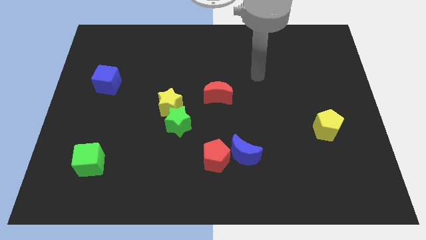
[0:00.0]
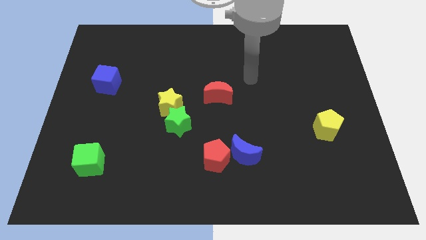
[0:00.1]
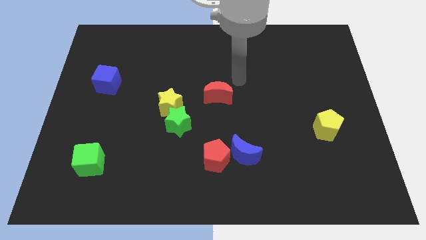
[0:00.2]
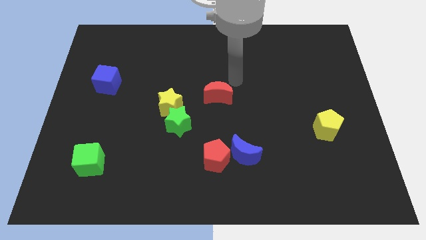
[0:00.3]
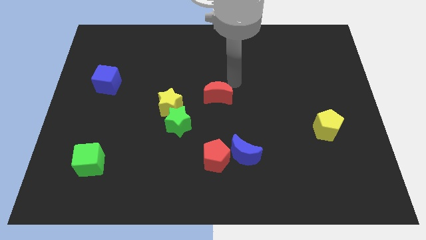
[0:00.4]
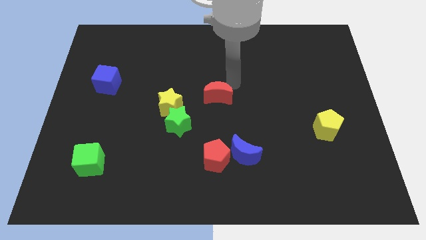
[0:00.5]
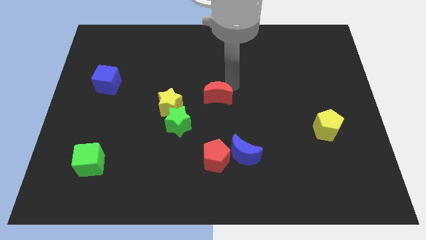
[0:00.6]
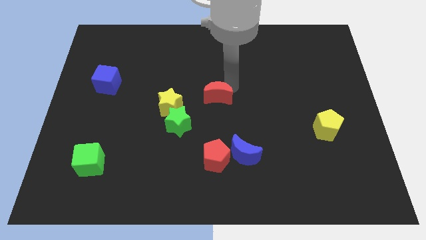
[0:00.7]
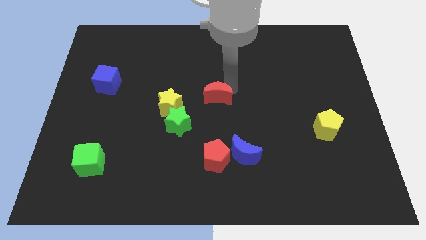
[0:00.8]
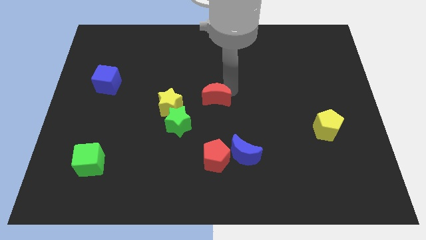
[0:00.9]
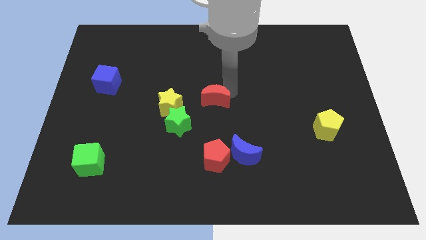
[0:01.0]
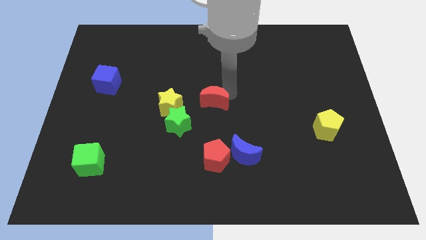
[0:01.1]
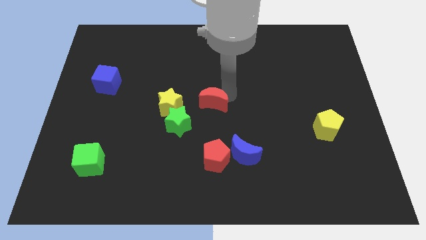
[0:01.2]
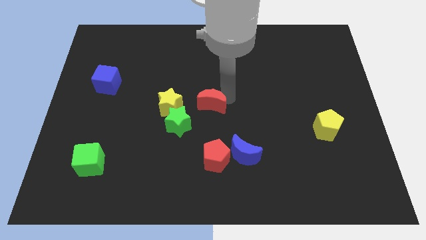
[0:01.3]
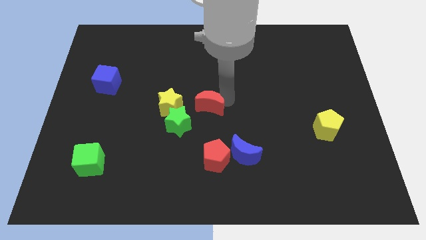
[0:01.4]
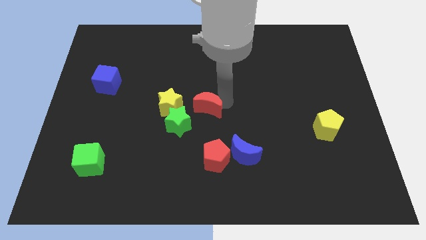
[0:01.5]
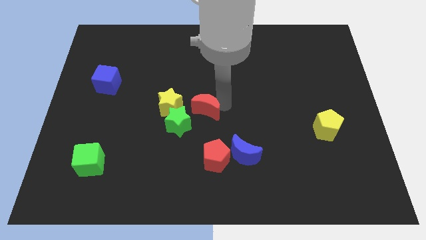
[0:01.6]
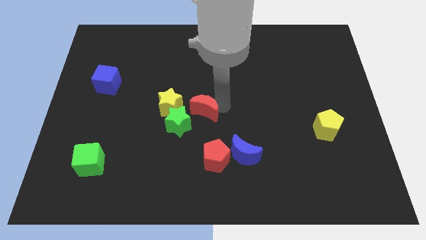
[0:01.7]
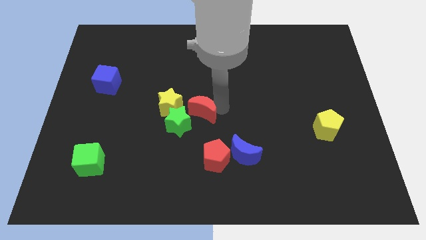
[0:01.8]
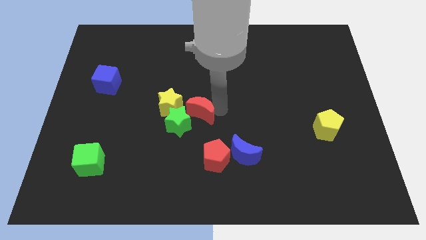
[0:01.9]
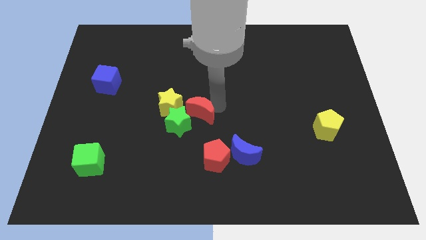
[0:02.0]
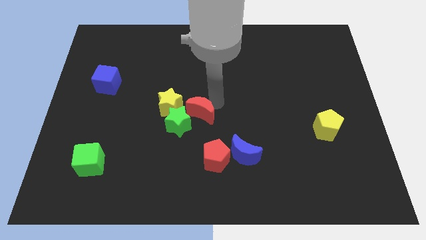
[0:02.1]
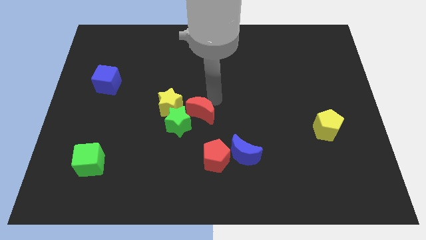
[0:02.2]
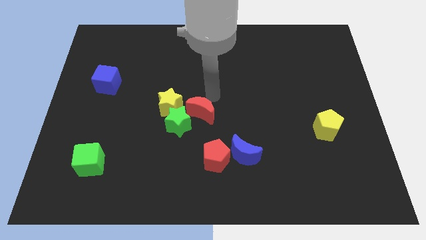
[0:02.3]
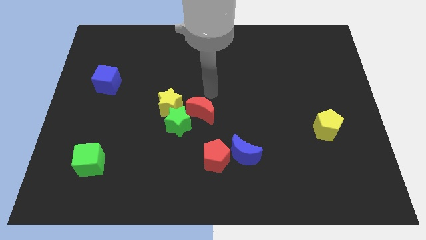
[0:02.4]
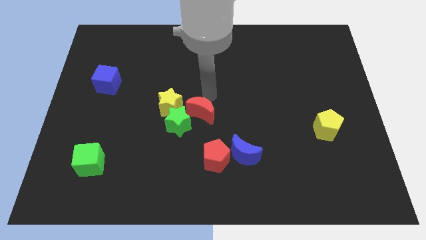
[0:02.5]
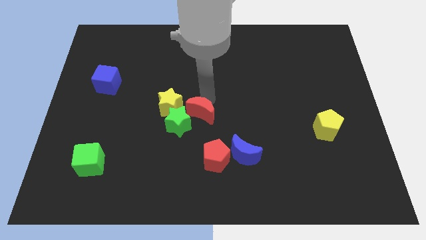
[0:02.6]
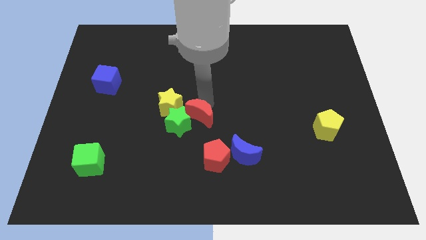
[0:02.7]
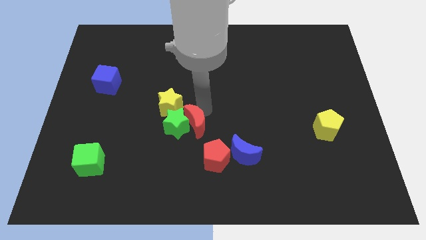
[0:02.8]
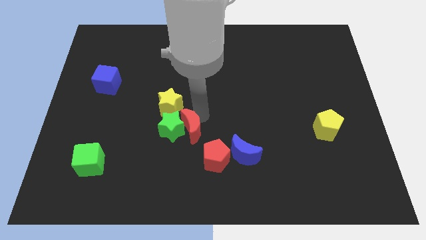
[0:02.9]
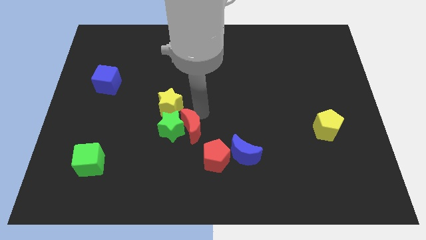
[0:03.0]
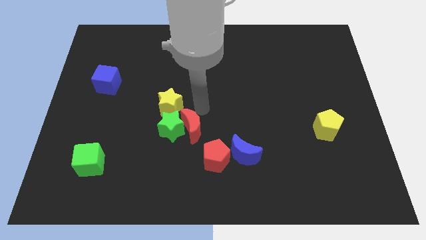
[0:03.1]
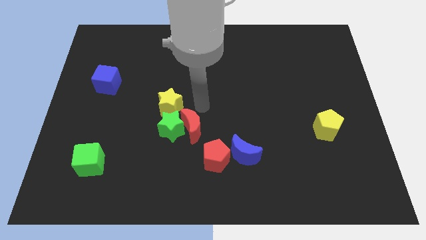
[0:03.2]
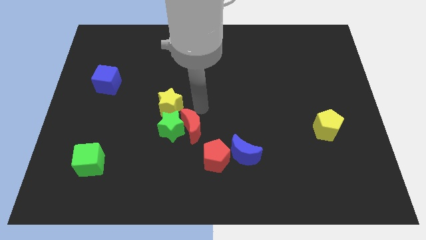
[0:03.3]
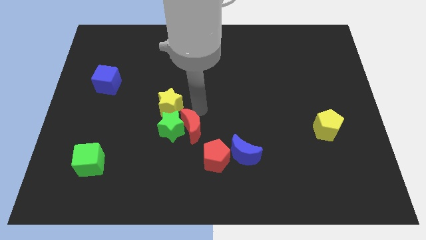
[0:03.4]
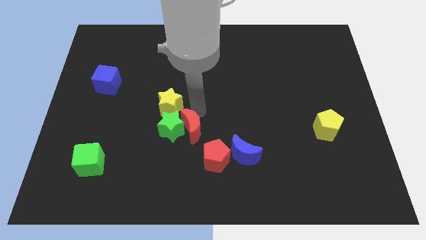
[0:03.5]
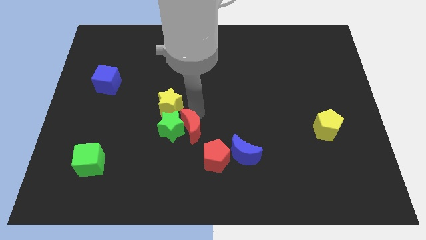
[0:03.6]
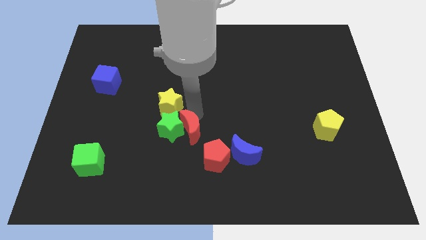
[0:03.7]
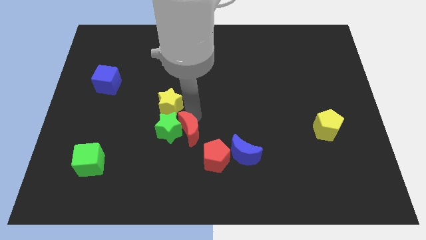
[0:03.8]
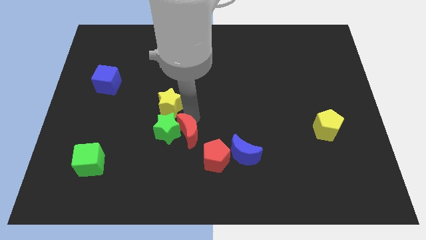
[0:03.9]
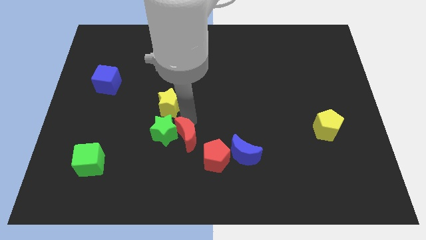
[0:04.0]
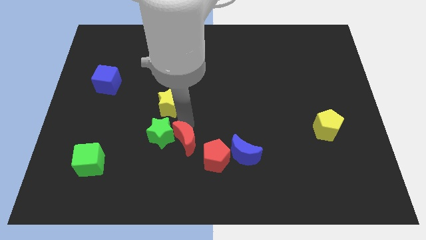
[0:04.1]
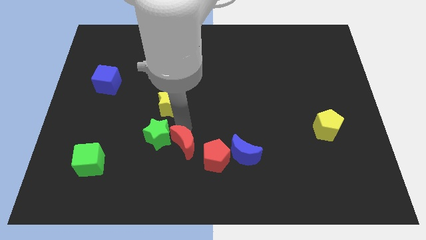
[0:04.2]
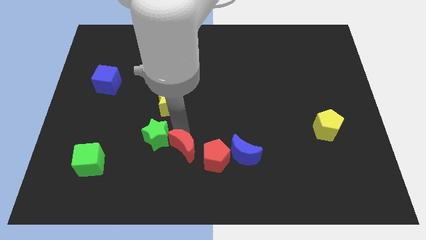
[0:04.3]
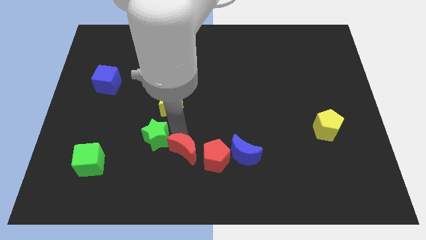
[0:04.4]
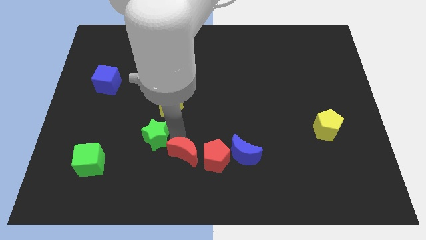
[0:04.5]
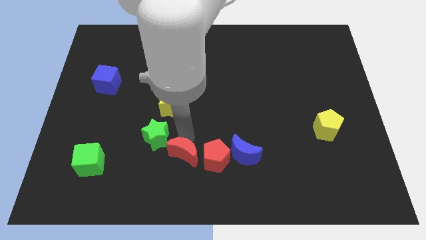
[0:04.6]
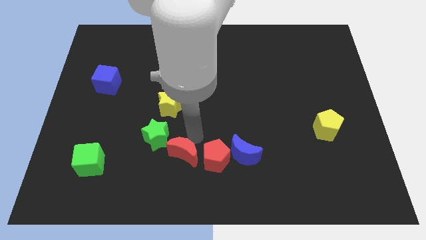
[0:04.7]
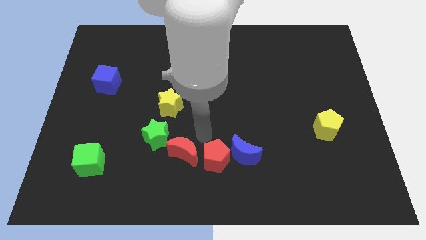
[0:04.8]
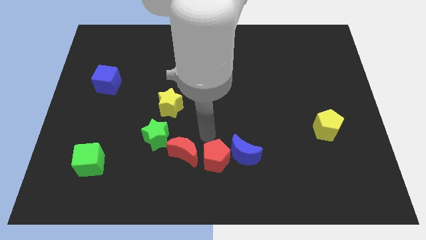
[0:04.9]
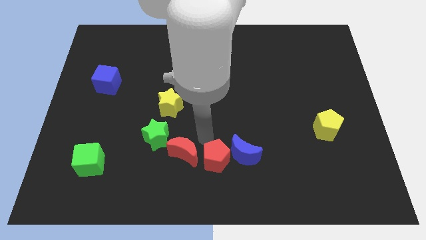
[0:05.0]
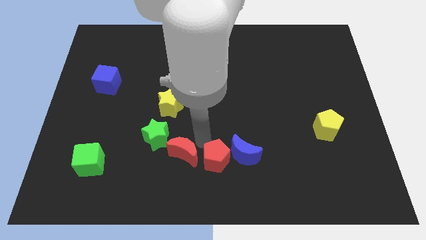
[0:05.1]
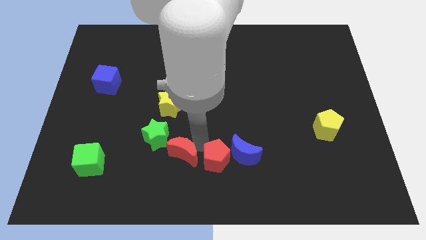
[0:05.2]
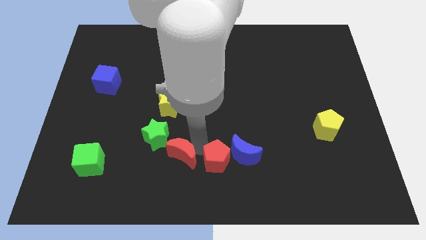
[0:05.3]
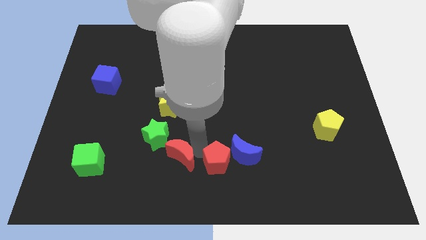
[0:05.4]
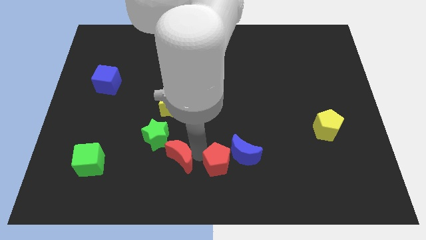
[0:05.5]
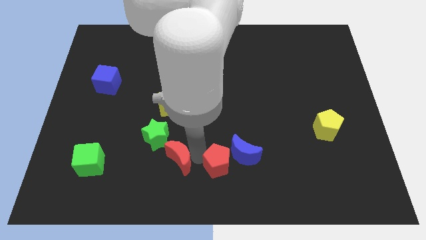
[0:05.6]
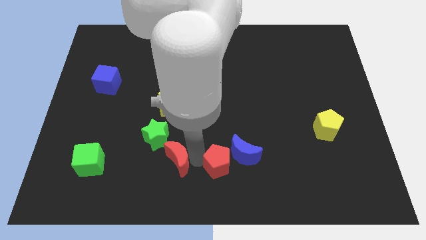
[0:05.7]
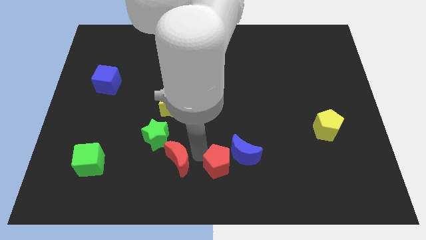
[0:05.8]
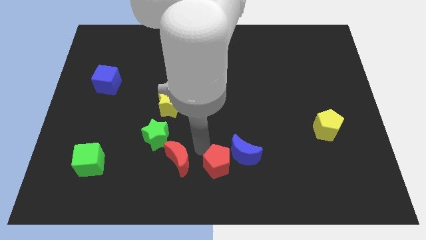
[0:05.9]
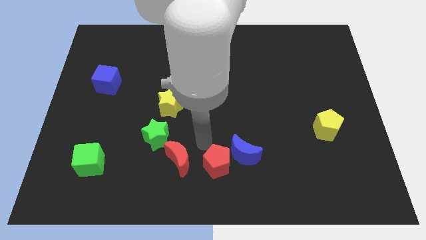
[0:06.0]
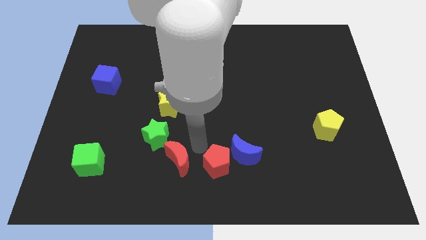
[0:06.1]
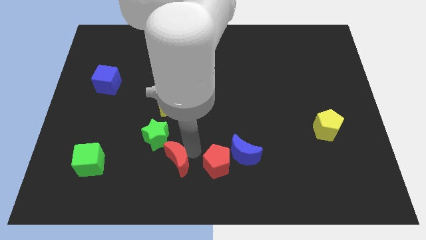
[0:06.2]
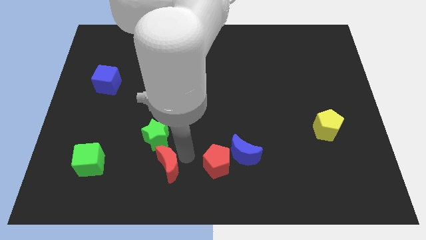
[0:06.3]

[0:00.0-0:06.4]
slide the red moon below the green star
